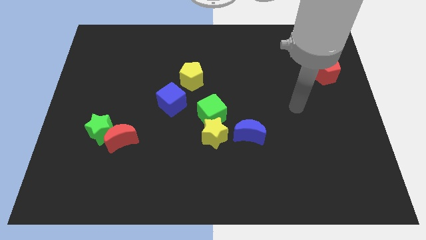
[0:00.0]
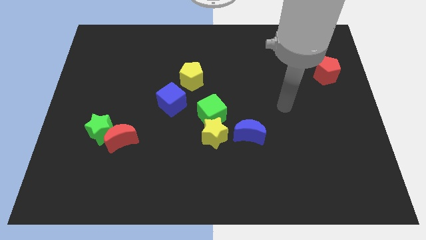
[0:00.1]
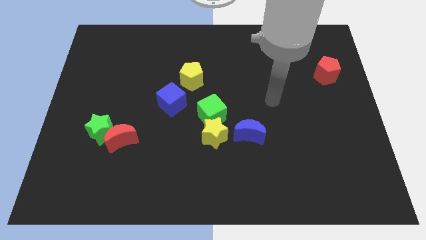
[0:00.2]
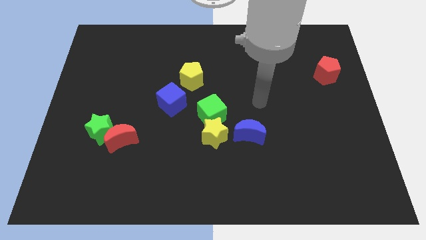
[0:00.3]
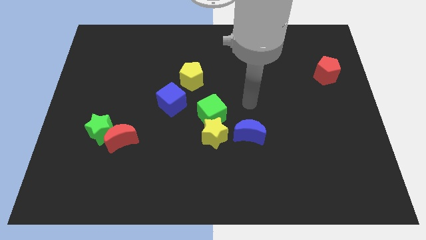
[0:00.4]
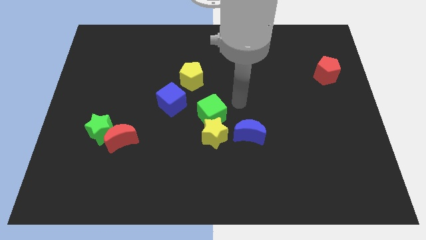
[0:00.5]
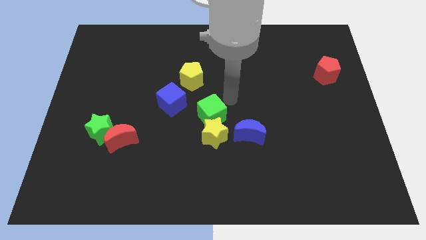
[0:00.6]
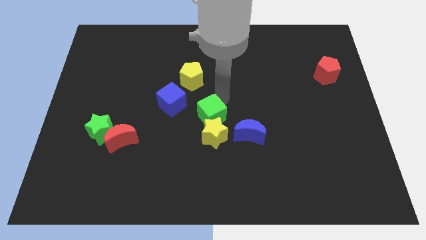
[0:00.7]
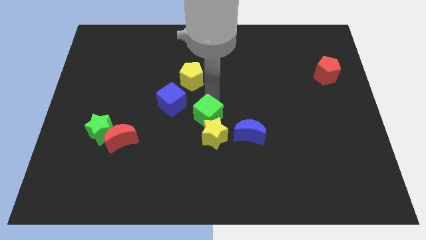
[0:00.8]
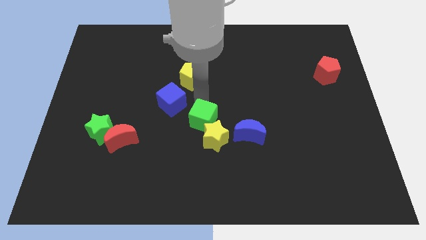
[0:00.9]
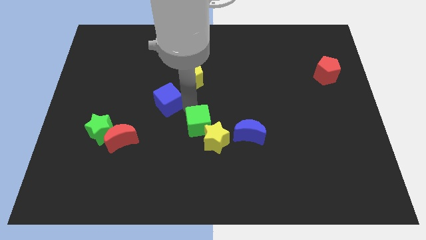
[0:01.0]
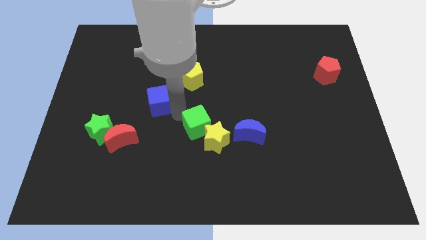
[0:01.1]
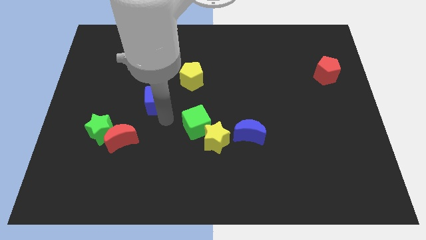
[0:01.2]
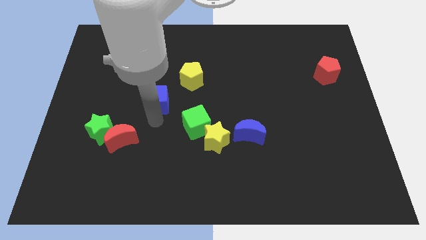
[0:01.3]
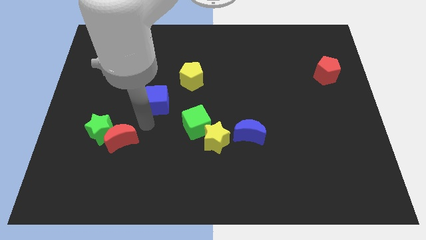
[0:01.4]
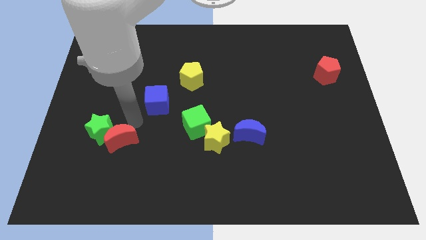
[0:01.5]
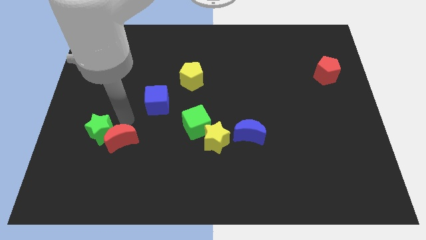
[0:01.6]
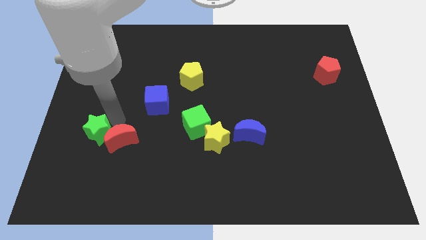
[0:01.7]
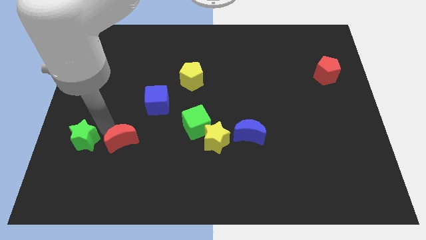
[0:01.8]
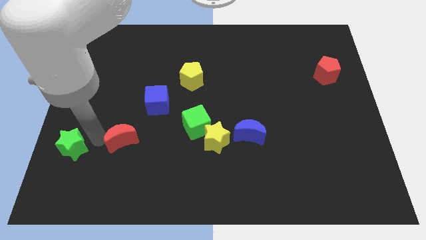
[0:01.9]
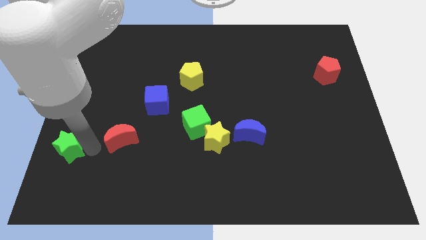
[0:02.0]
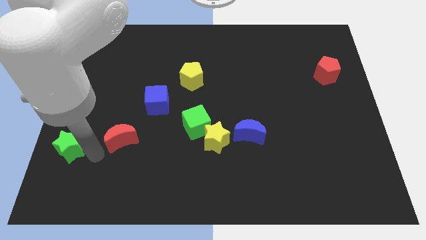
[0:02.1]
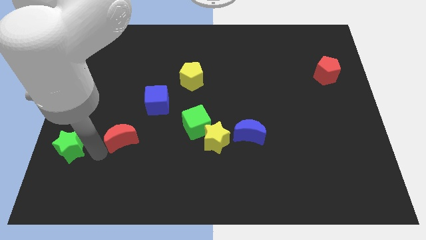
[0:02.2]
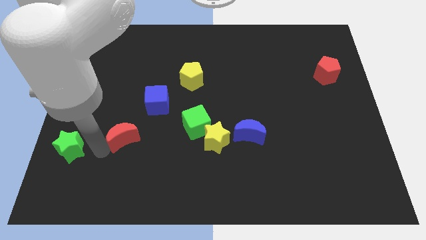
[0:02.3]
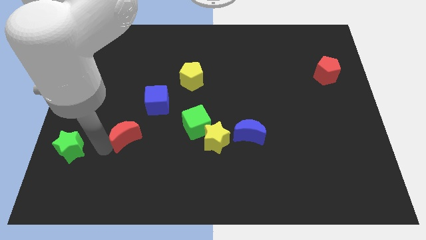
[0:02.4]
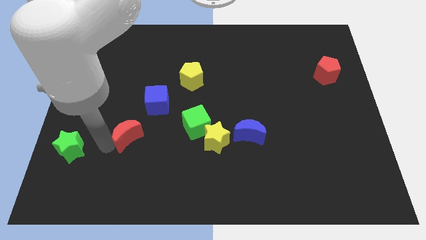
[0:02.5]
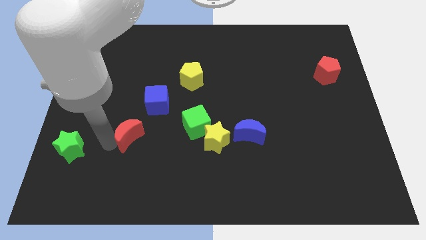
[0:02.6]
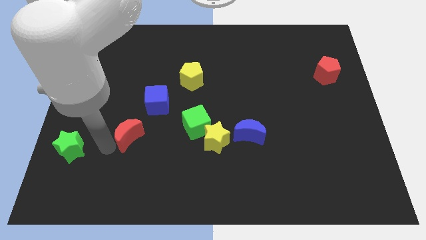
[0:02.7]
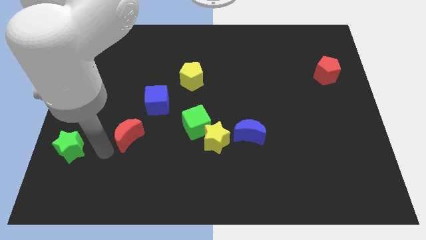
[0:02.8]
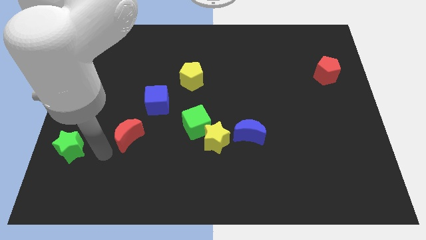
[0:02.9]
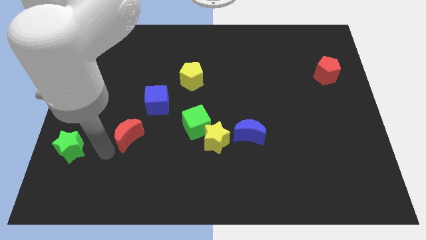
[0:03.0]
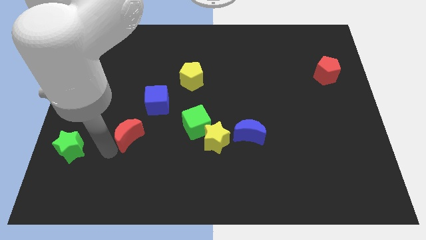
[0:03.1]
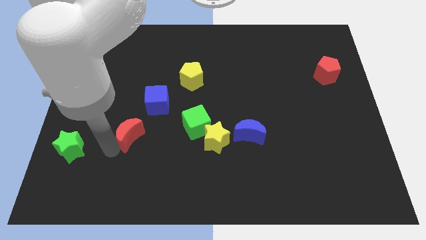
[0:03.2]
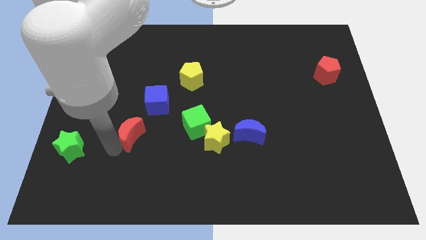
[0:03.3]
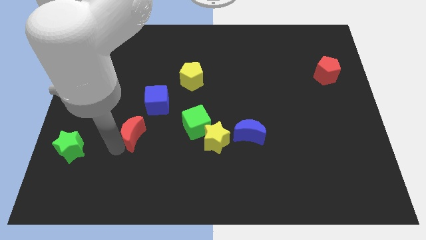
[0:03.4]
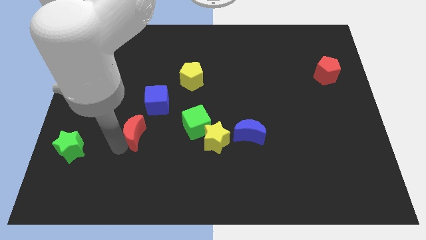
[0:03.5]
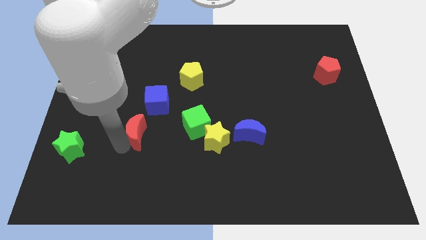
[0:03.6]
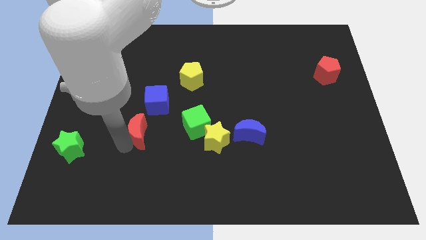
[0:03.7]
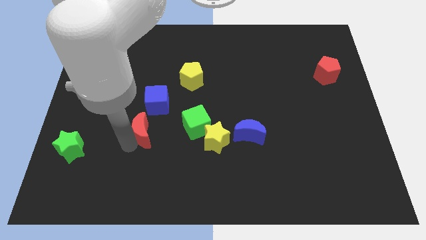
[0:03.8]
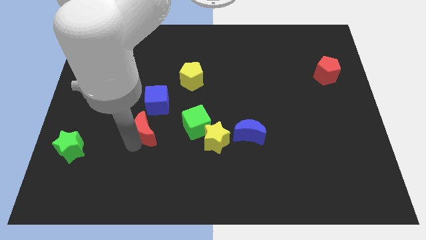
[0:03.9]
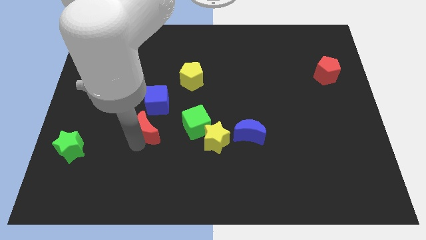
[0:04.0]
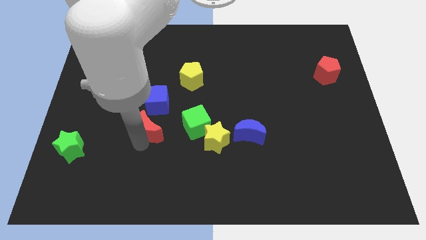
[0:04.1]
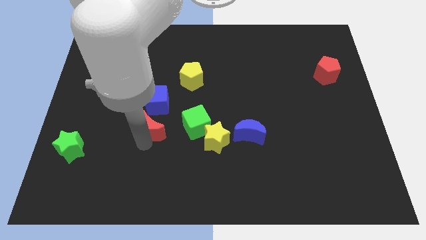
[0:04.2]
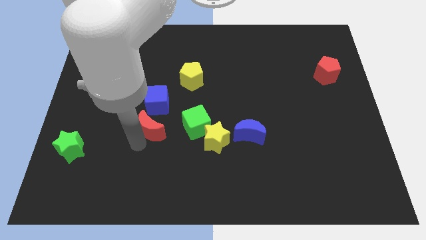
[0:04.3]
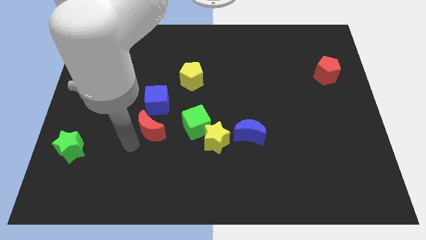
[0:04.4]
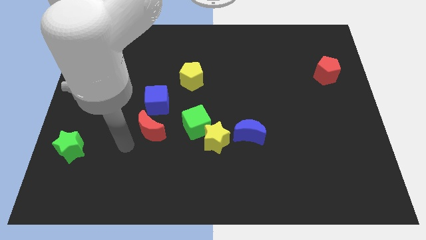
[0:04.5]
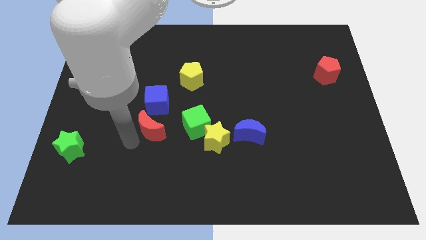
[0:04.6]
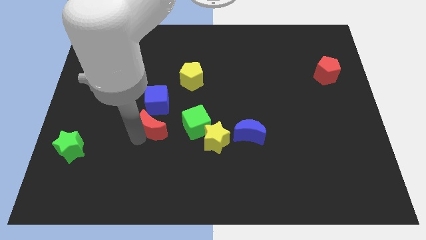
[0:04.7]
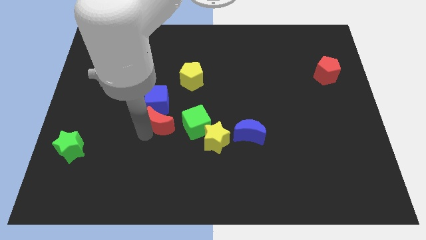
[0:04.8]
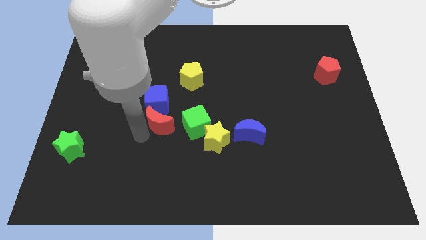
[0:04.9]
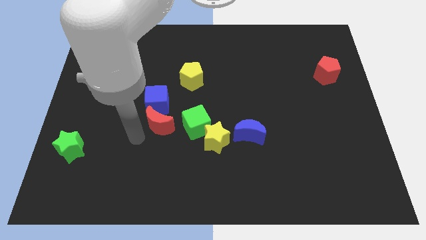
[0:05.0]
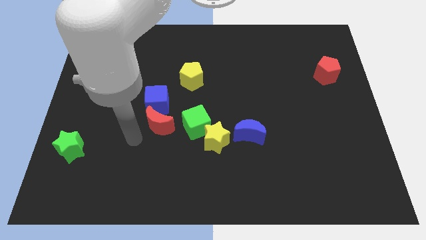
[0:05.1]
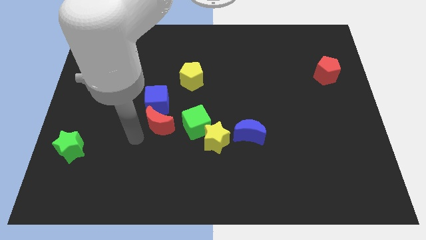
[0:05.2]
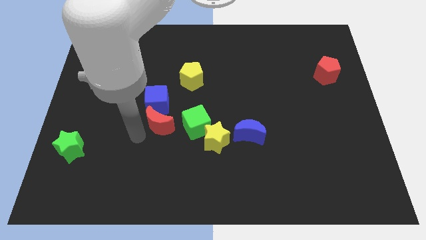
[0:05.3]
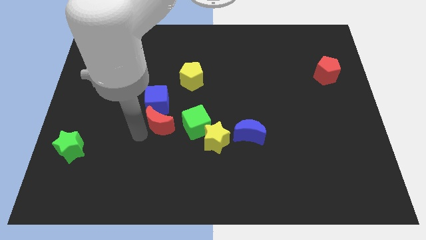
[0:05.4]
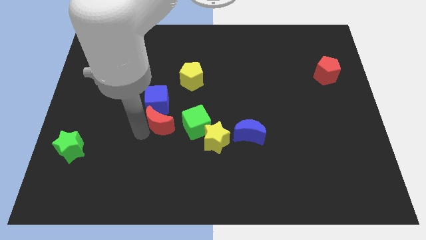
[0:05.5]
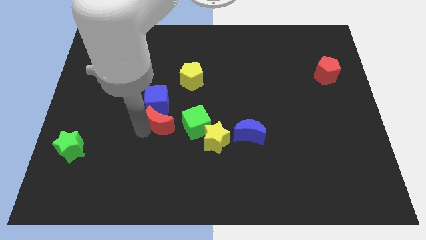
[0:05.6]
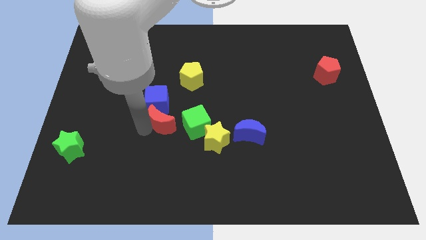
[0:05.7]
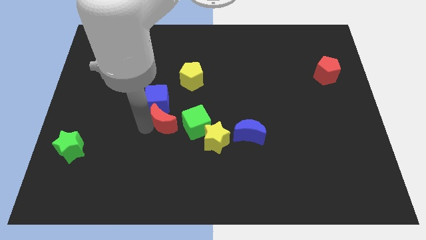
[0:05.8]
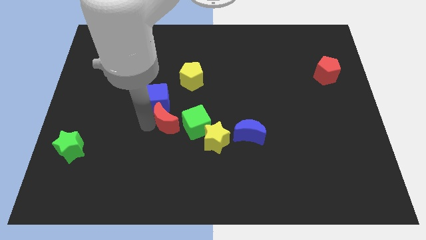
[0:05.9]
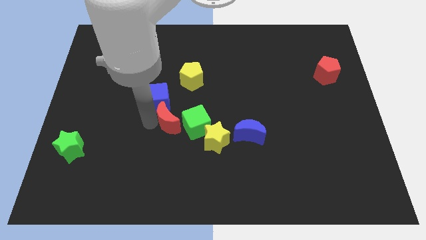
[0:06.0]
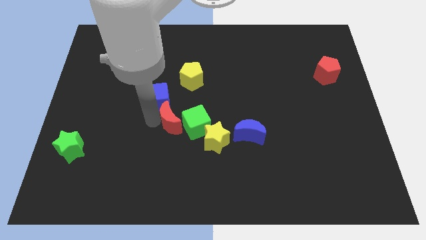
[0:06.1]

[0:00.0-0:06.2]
put the red moon to the bottom side of the yellow pentagon

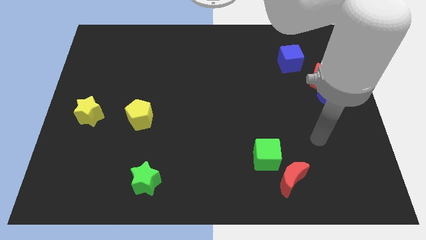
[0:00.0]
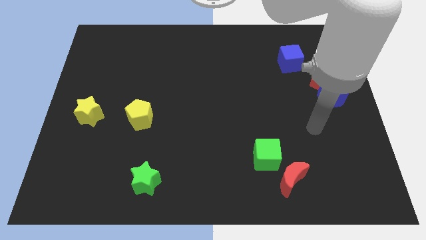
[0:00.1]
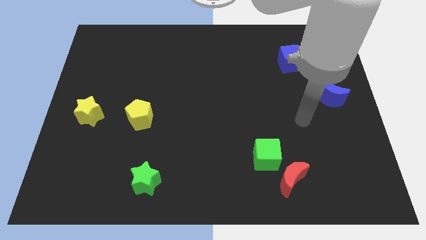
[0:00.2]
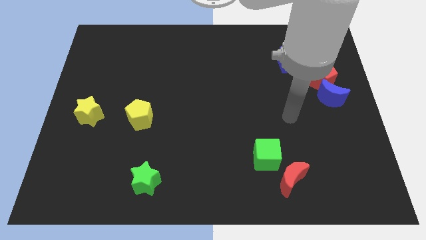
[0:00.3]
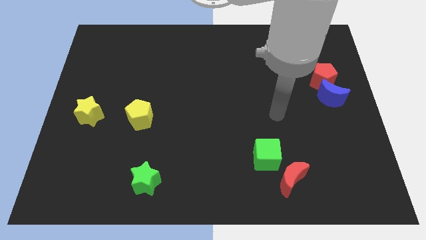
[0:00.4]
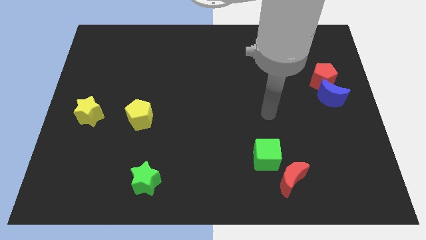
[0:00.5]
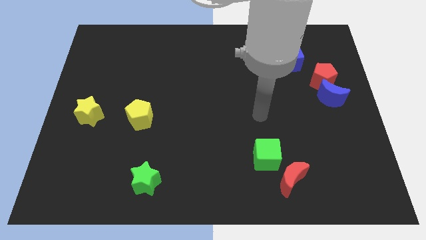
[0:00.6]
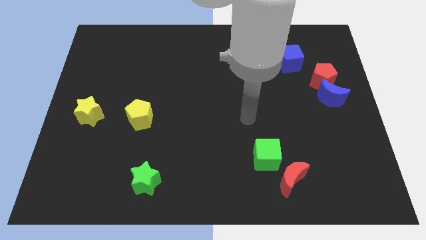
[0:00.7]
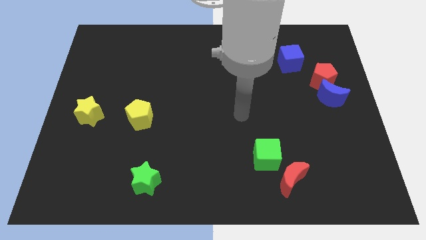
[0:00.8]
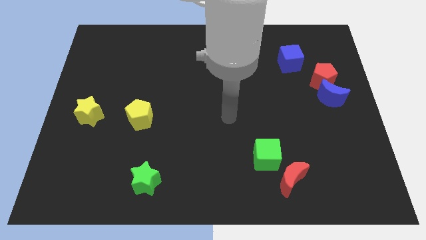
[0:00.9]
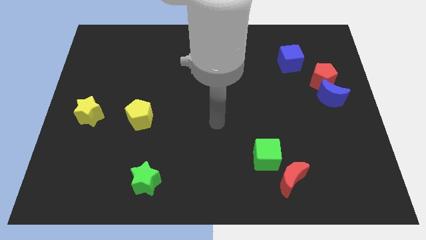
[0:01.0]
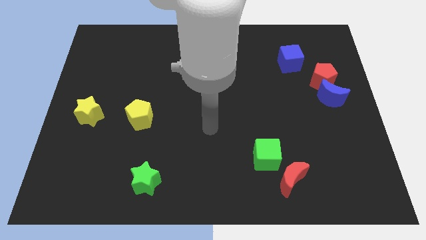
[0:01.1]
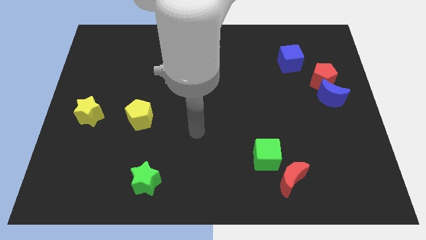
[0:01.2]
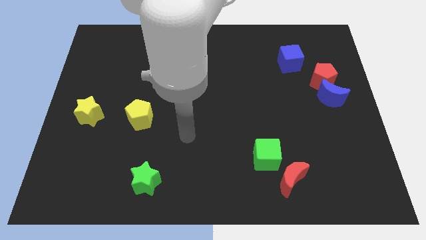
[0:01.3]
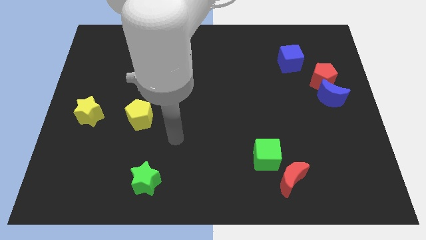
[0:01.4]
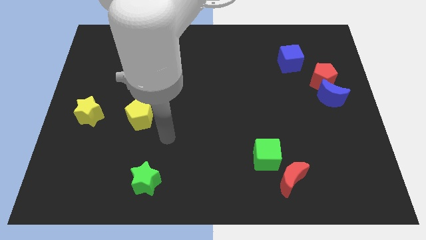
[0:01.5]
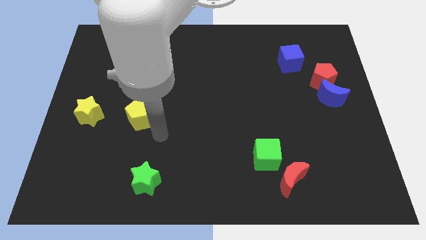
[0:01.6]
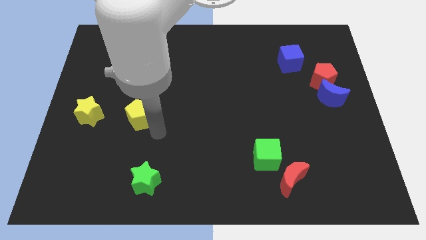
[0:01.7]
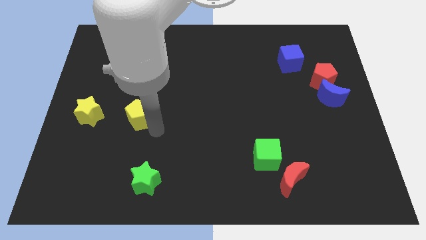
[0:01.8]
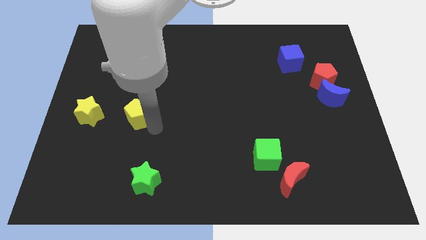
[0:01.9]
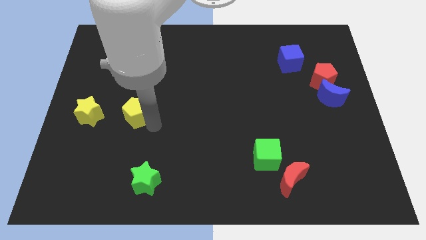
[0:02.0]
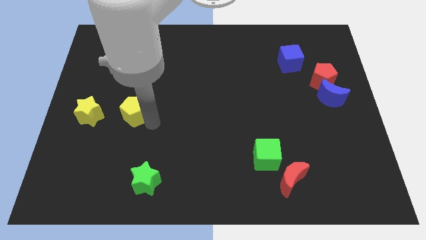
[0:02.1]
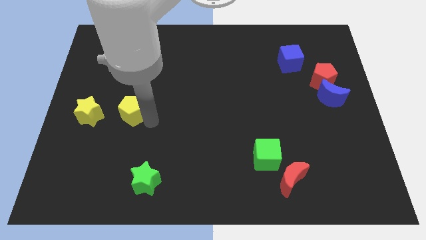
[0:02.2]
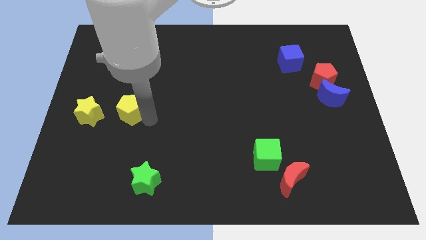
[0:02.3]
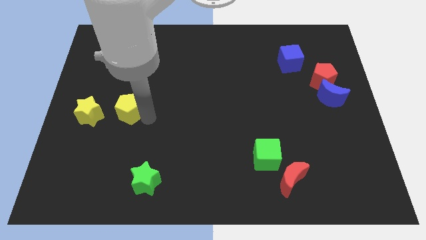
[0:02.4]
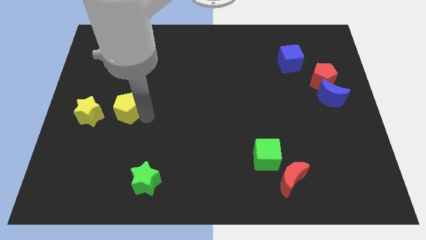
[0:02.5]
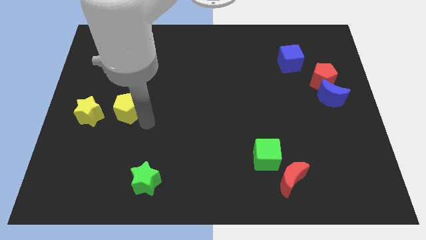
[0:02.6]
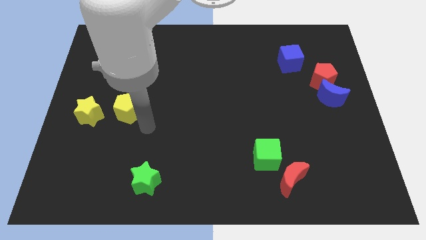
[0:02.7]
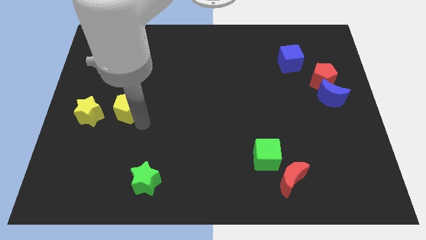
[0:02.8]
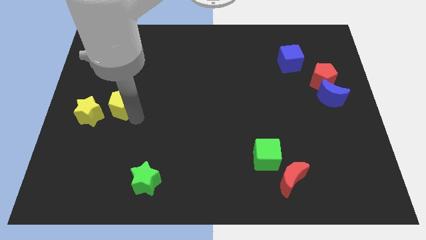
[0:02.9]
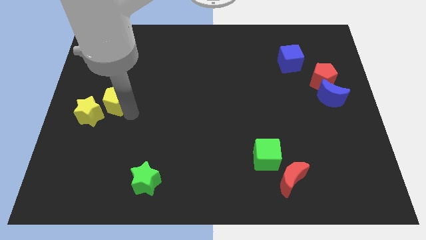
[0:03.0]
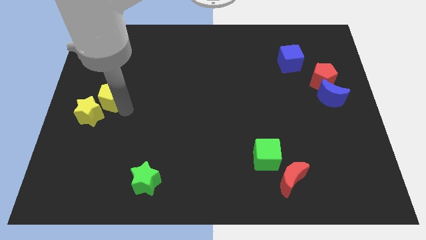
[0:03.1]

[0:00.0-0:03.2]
move the yellow pentagon to the top of the yellow star
